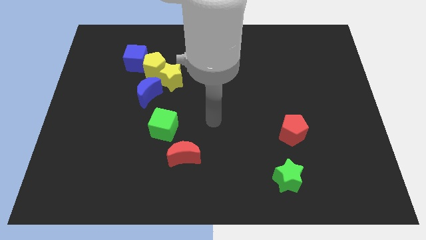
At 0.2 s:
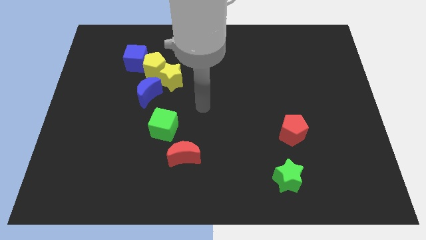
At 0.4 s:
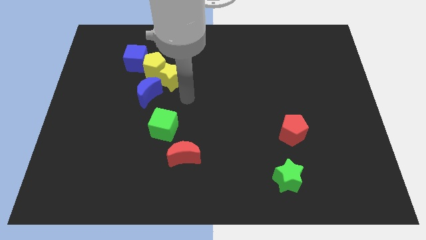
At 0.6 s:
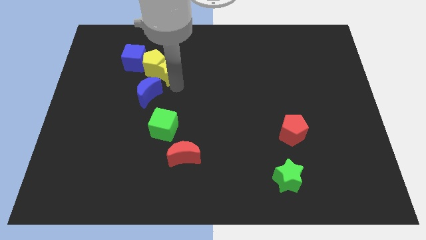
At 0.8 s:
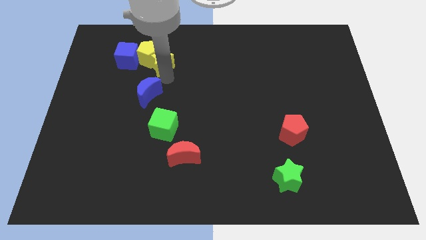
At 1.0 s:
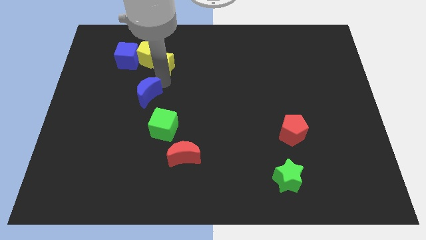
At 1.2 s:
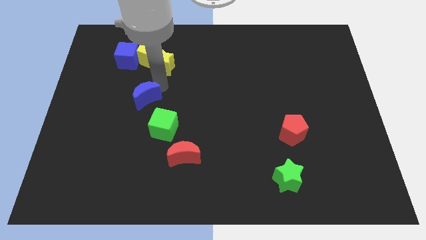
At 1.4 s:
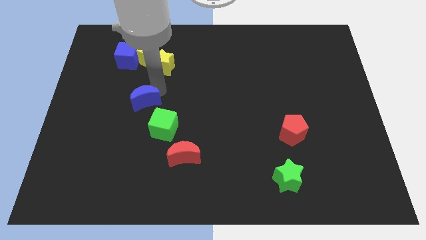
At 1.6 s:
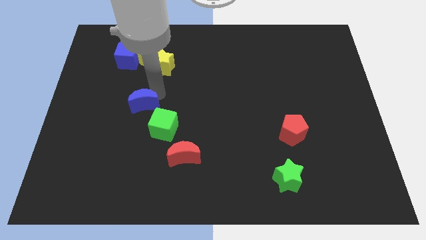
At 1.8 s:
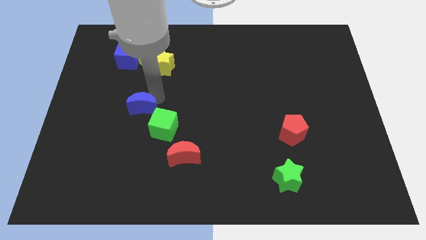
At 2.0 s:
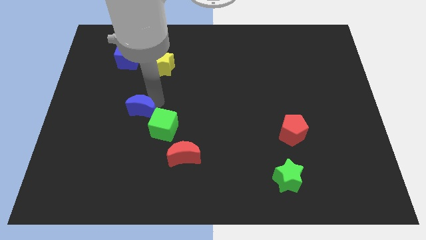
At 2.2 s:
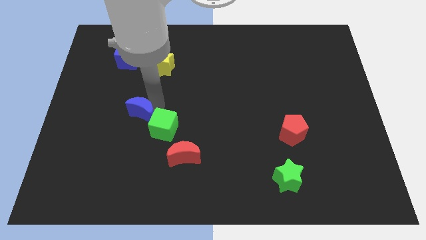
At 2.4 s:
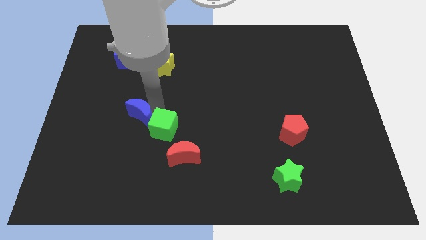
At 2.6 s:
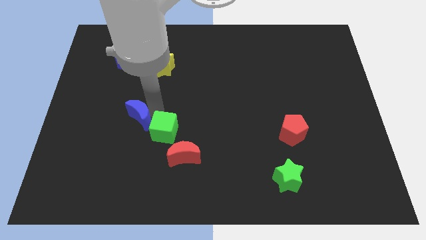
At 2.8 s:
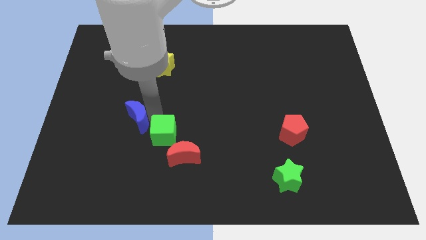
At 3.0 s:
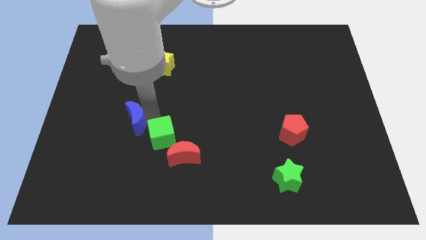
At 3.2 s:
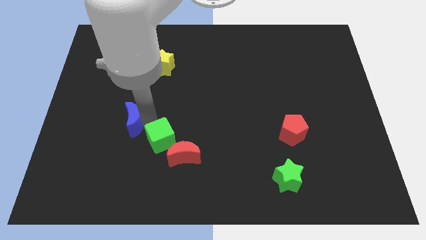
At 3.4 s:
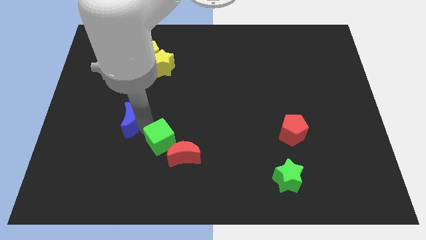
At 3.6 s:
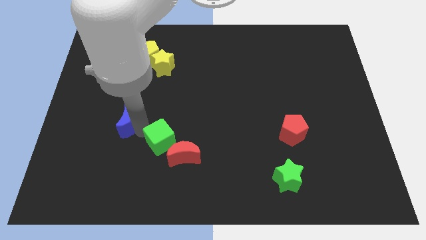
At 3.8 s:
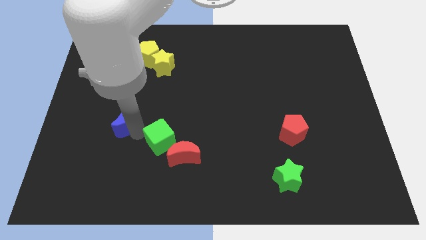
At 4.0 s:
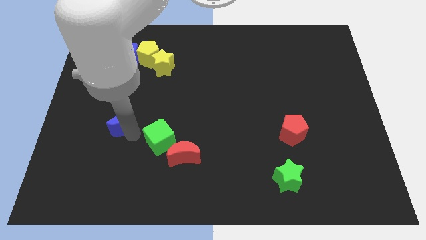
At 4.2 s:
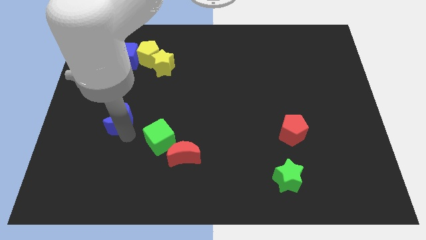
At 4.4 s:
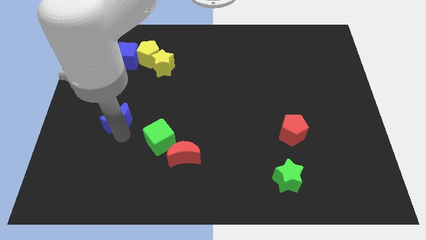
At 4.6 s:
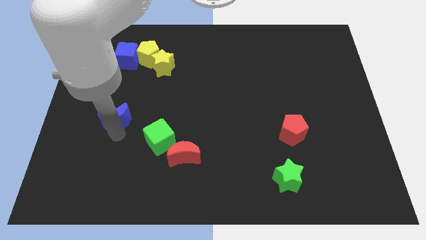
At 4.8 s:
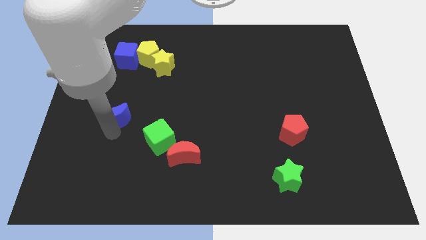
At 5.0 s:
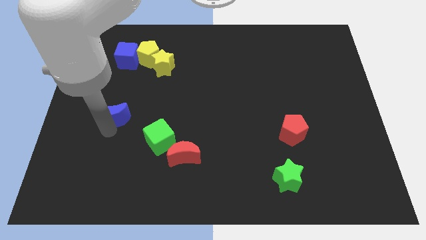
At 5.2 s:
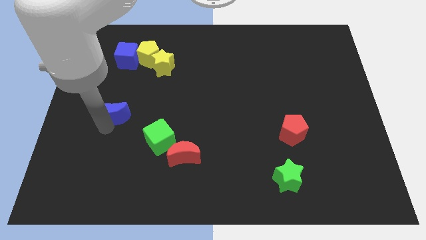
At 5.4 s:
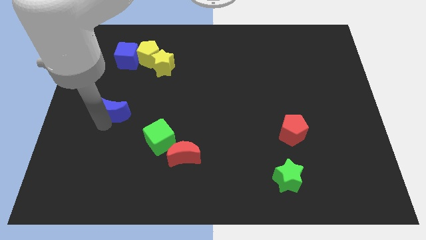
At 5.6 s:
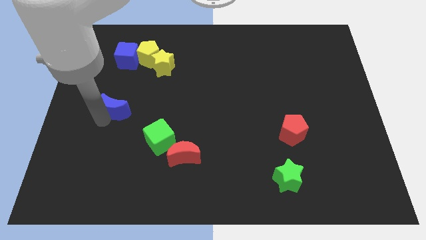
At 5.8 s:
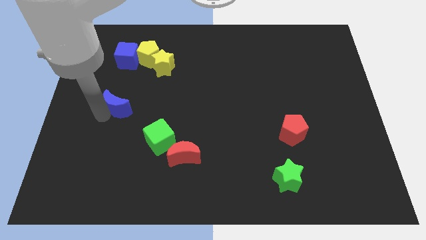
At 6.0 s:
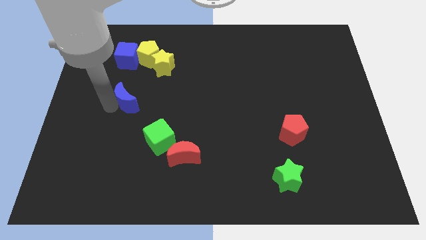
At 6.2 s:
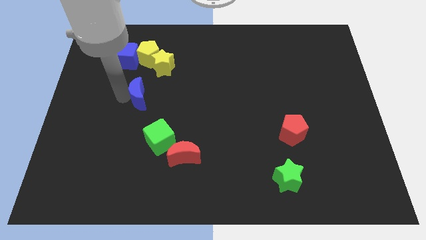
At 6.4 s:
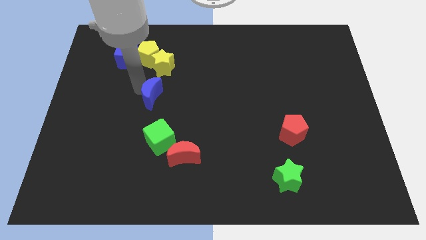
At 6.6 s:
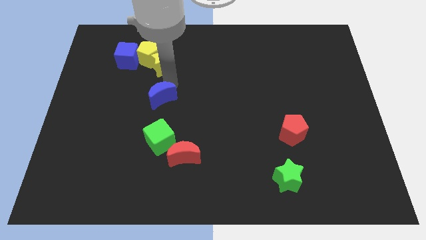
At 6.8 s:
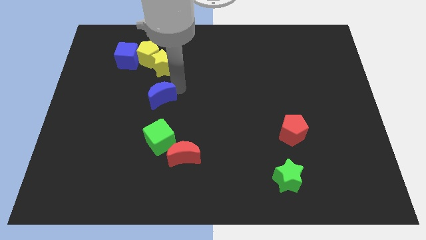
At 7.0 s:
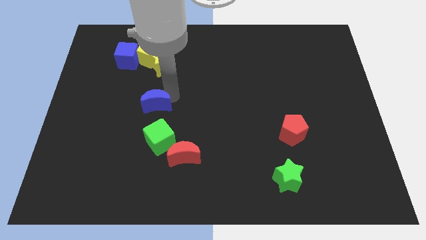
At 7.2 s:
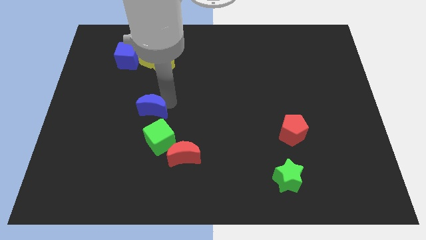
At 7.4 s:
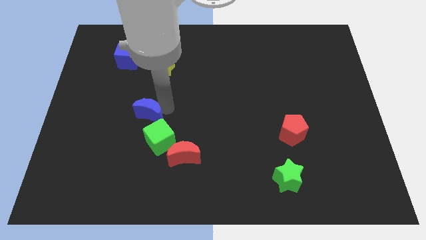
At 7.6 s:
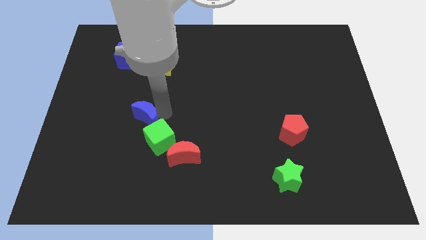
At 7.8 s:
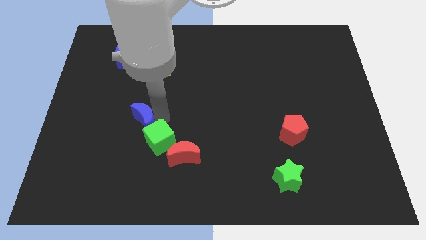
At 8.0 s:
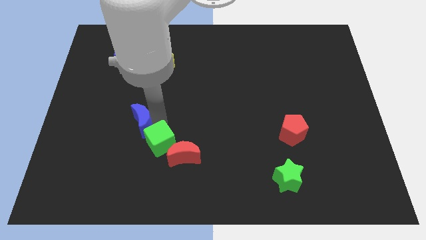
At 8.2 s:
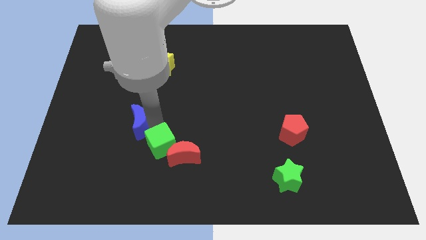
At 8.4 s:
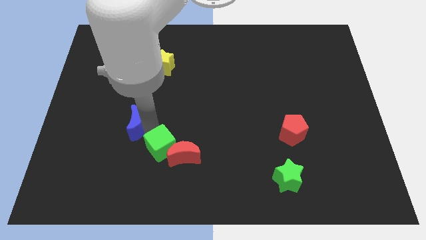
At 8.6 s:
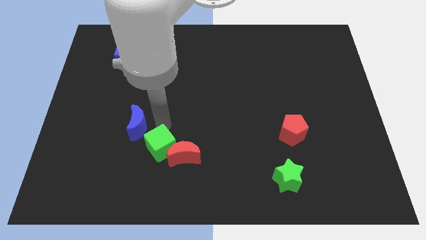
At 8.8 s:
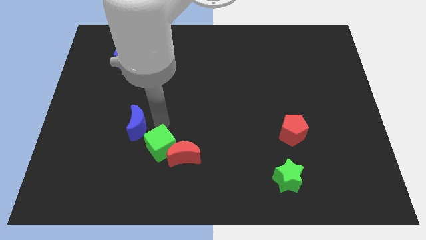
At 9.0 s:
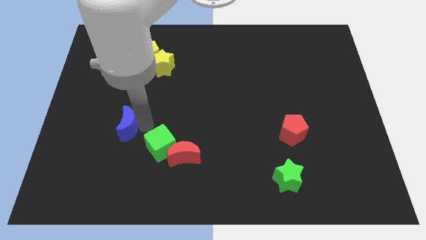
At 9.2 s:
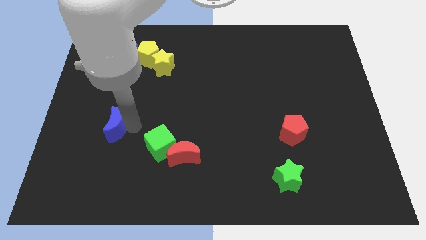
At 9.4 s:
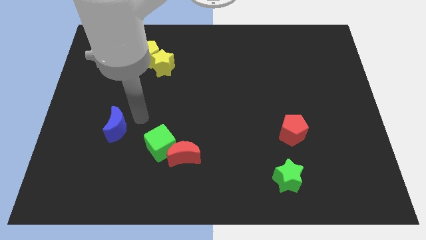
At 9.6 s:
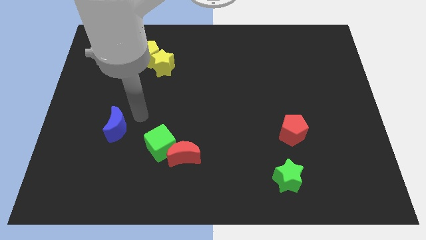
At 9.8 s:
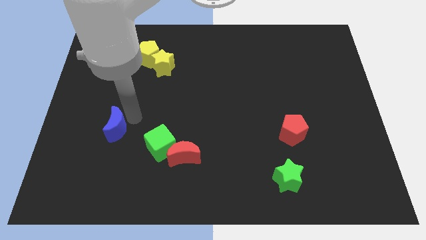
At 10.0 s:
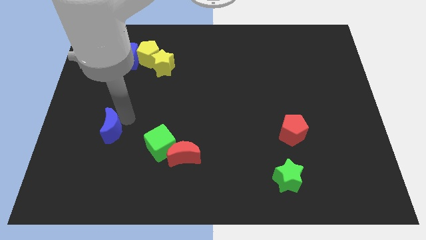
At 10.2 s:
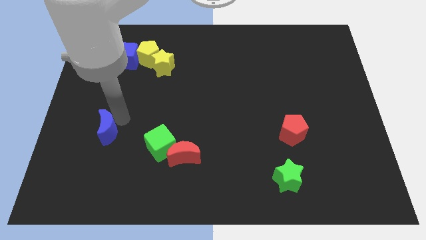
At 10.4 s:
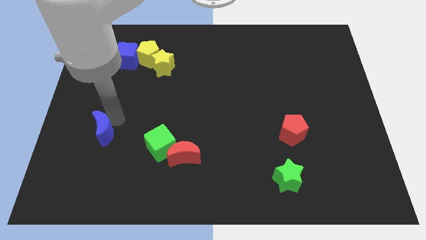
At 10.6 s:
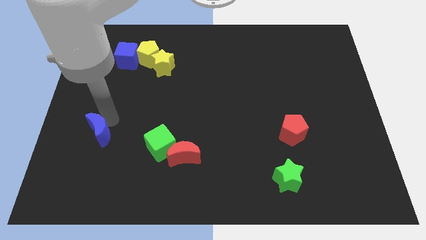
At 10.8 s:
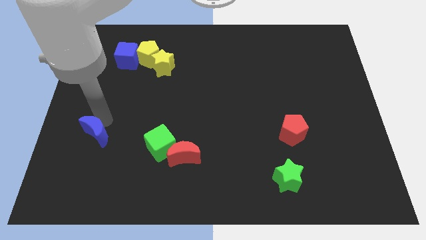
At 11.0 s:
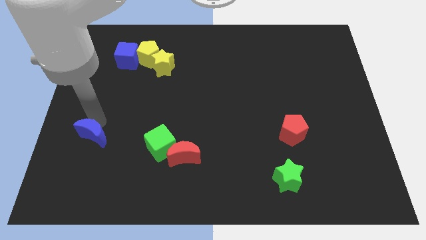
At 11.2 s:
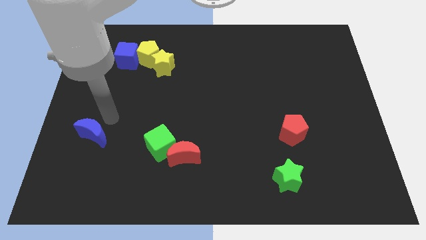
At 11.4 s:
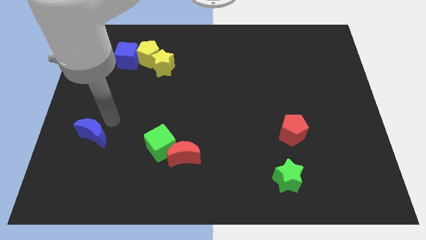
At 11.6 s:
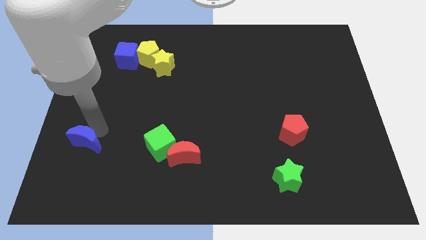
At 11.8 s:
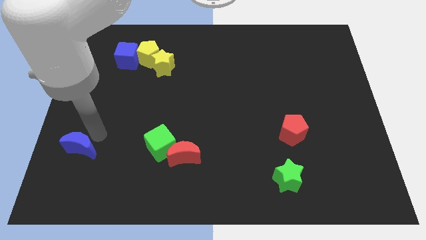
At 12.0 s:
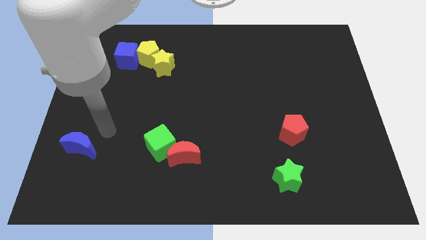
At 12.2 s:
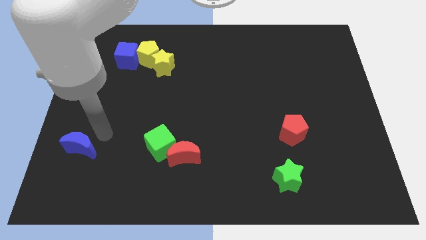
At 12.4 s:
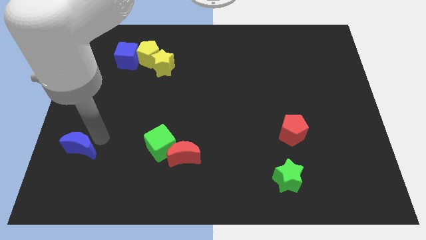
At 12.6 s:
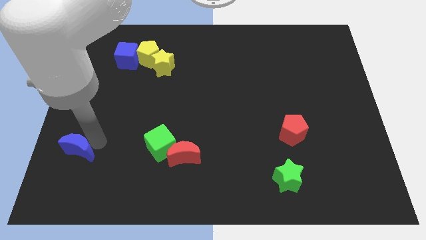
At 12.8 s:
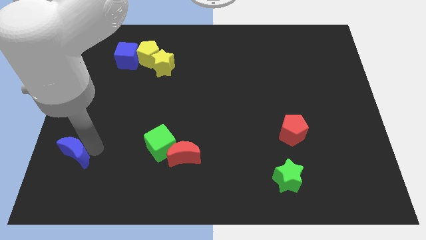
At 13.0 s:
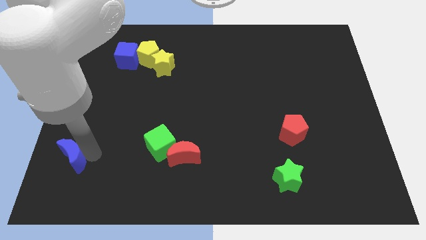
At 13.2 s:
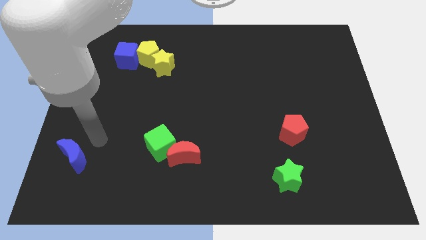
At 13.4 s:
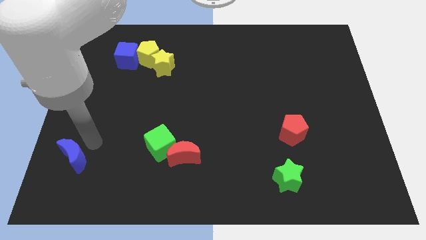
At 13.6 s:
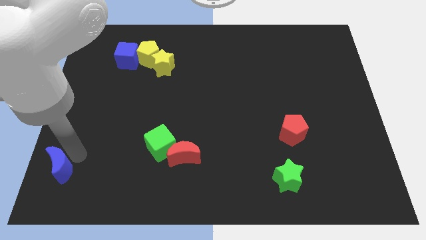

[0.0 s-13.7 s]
push the blue moon to the bottom left
